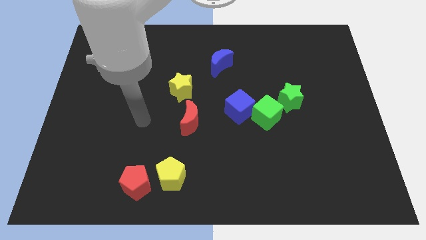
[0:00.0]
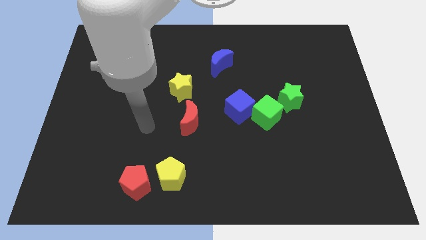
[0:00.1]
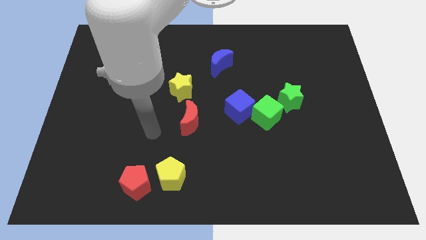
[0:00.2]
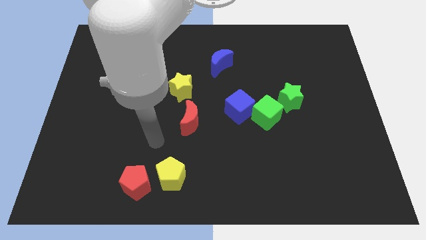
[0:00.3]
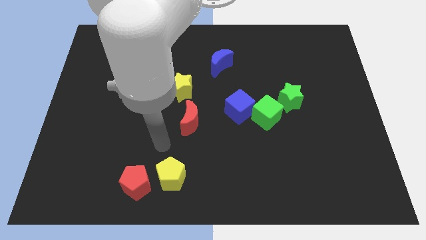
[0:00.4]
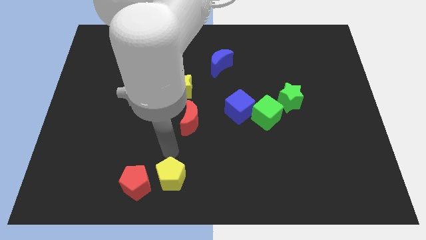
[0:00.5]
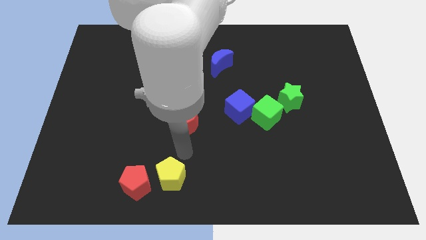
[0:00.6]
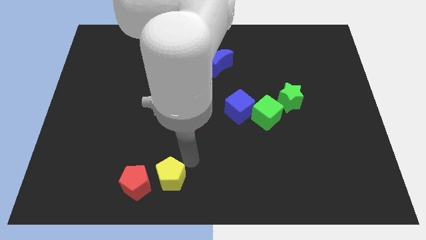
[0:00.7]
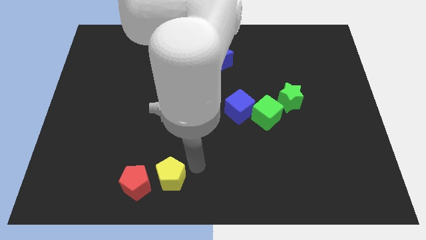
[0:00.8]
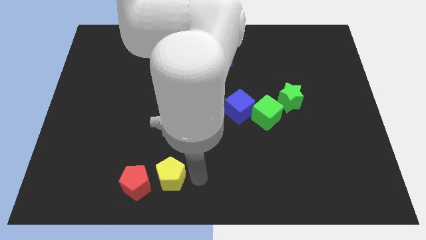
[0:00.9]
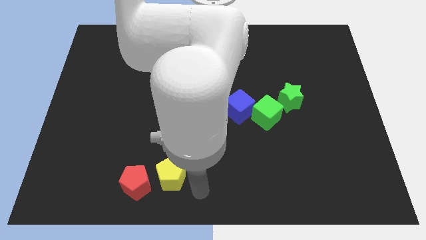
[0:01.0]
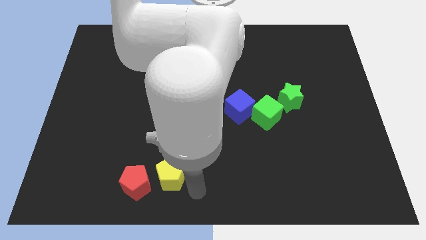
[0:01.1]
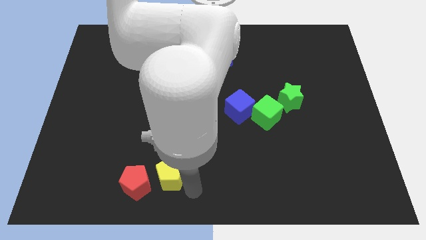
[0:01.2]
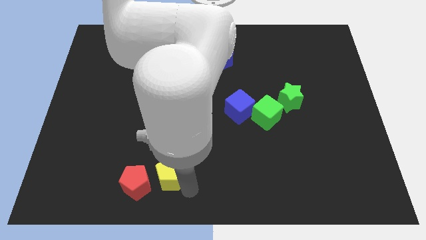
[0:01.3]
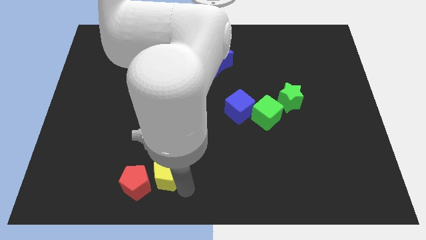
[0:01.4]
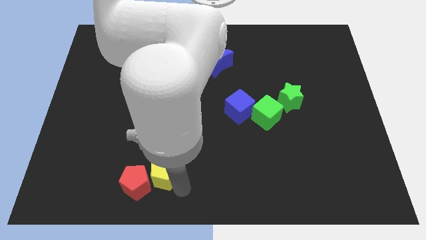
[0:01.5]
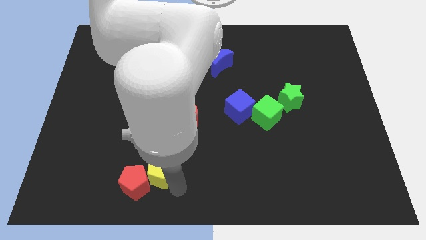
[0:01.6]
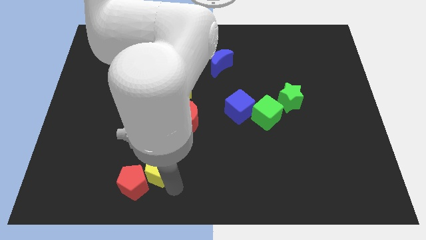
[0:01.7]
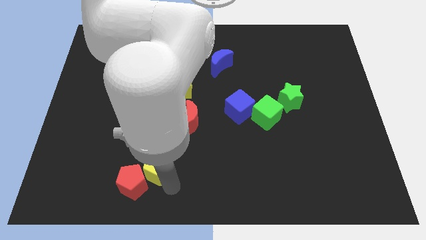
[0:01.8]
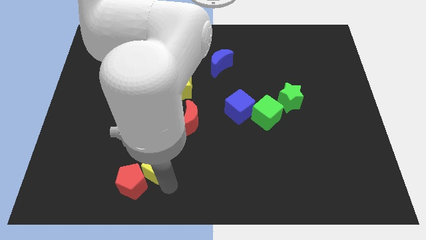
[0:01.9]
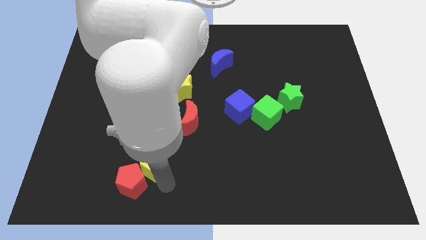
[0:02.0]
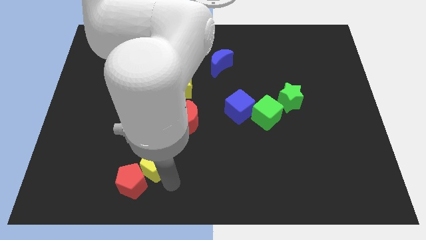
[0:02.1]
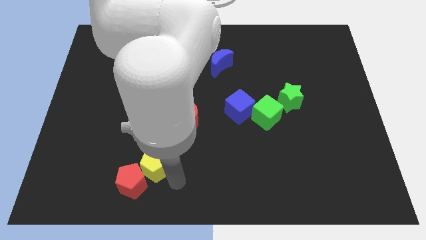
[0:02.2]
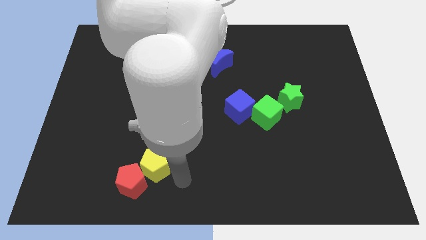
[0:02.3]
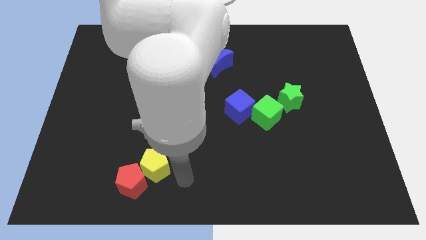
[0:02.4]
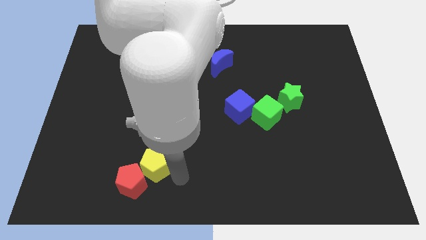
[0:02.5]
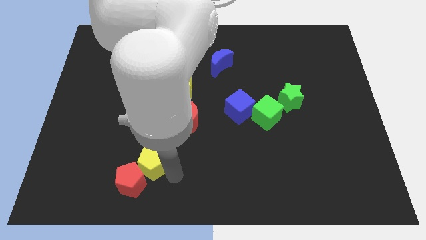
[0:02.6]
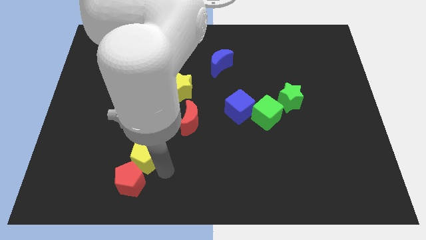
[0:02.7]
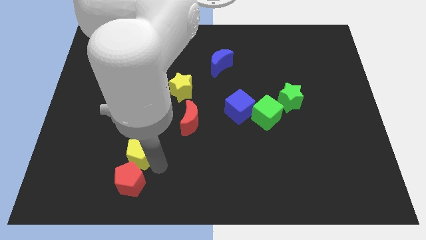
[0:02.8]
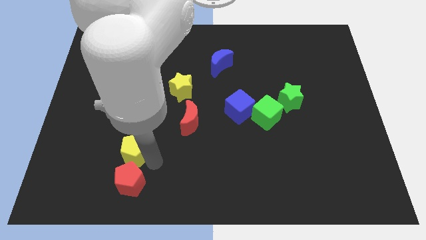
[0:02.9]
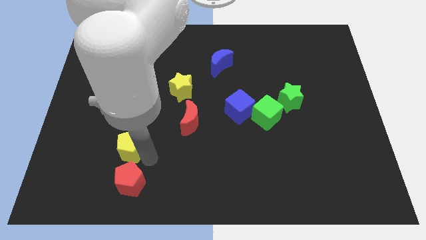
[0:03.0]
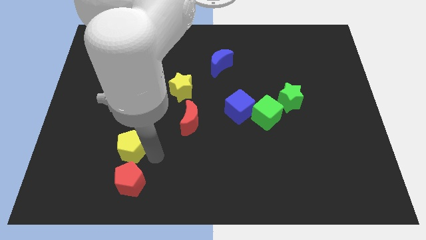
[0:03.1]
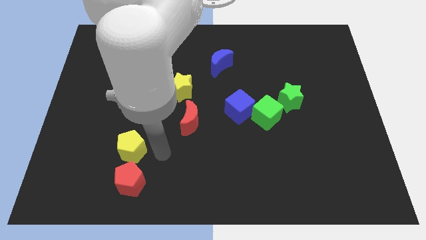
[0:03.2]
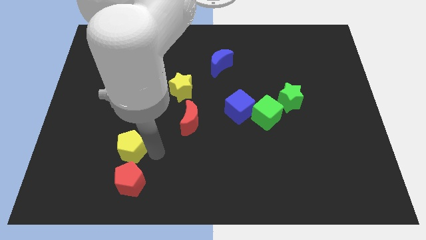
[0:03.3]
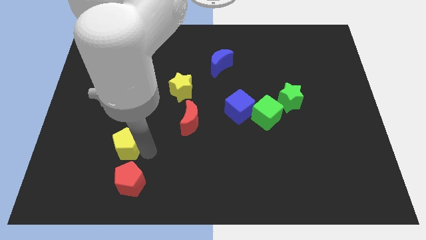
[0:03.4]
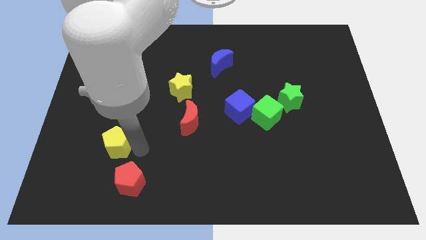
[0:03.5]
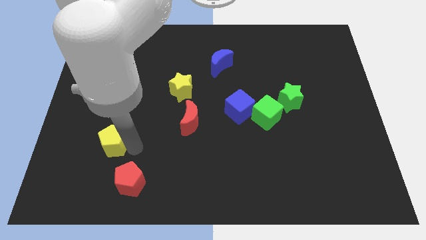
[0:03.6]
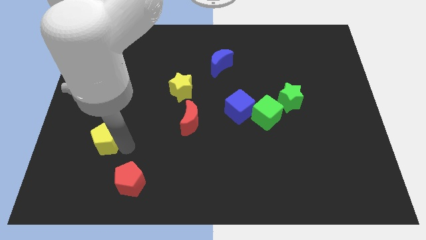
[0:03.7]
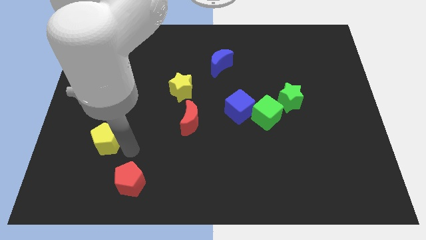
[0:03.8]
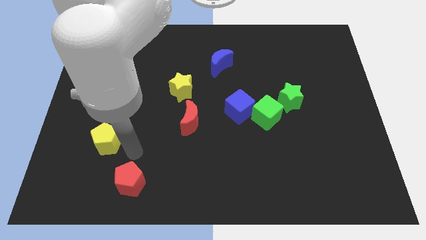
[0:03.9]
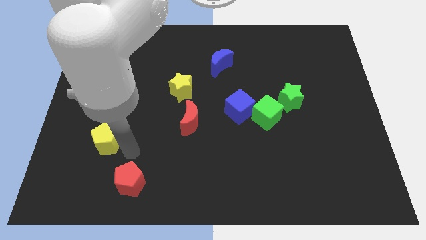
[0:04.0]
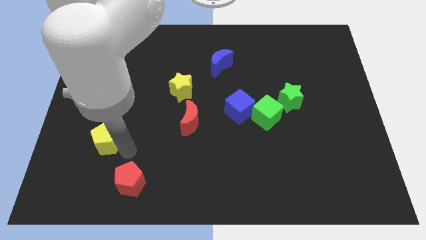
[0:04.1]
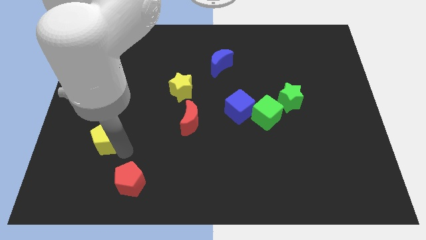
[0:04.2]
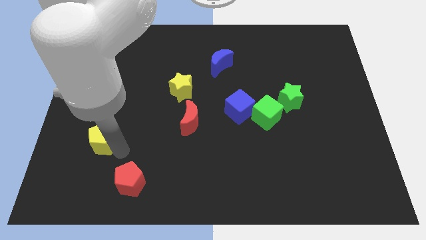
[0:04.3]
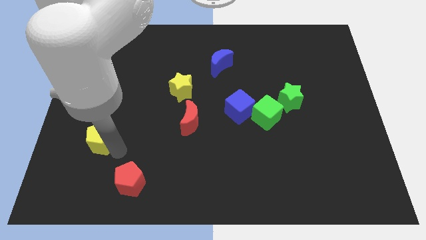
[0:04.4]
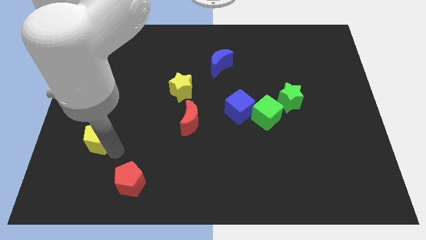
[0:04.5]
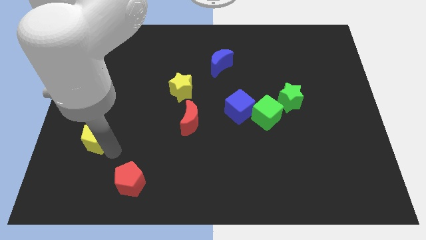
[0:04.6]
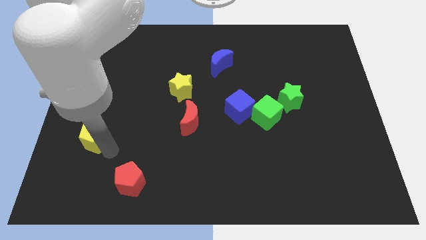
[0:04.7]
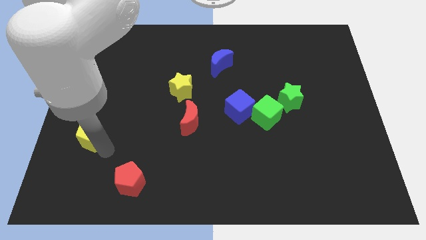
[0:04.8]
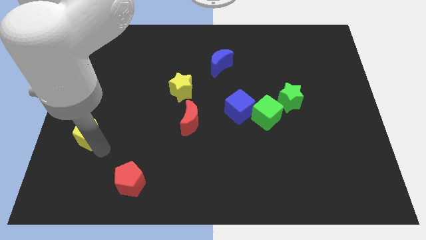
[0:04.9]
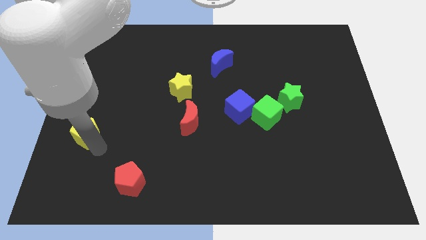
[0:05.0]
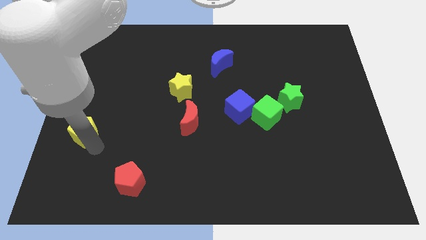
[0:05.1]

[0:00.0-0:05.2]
move the yellow pentagon to the center left

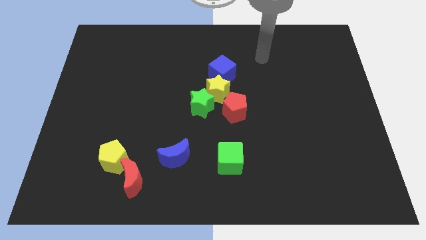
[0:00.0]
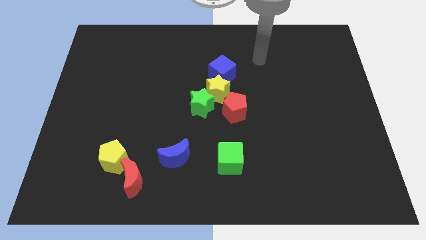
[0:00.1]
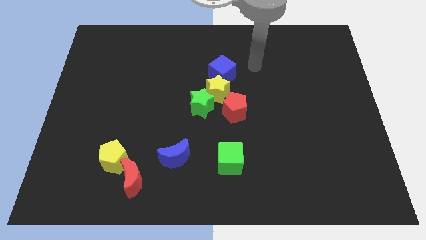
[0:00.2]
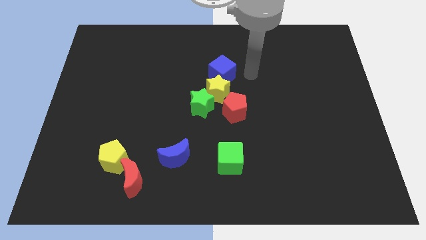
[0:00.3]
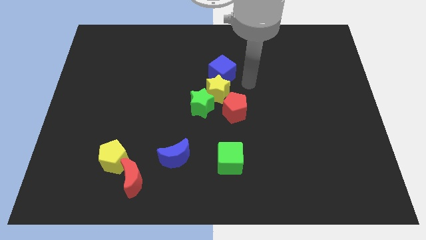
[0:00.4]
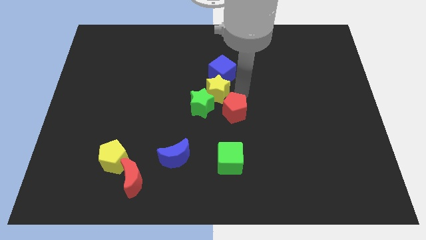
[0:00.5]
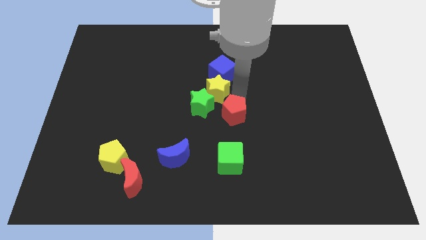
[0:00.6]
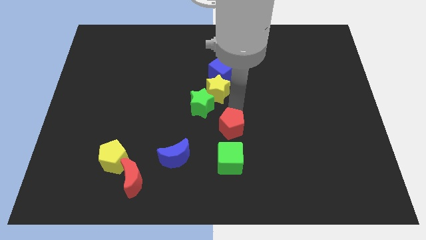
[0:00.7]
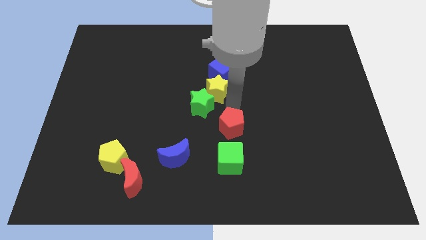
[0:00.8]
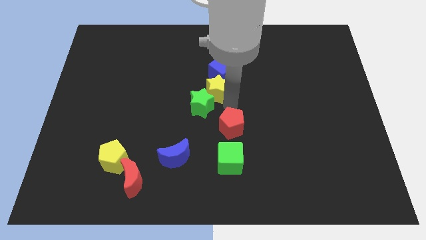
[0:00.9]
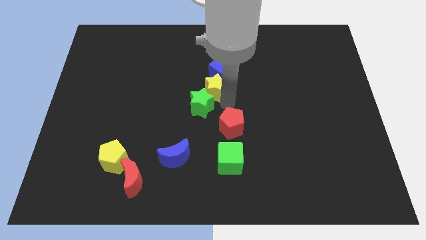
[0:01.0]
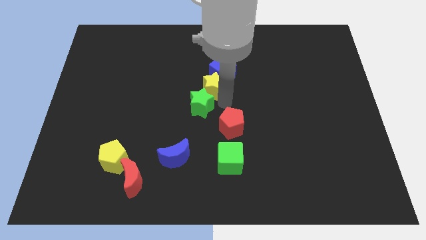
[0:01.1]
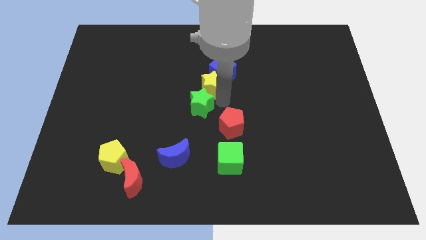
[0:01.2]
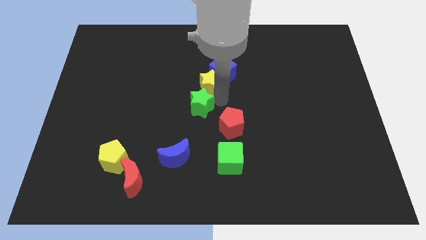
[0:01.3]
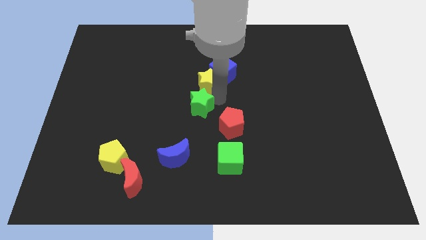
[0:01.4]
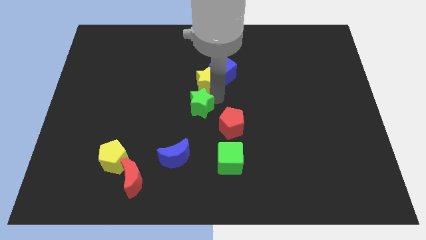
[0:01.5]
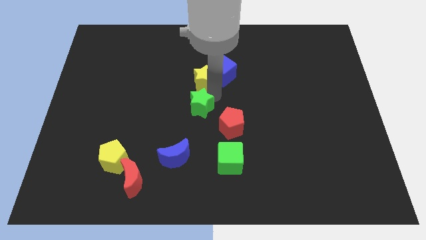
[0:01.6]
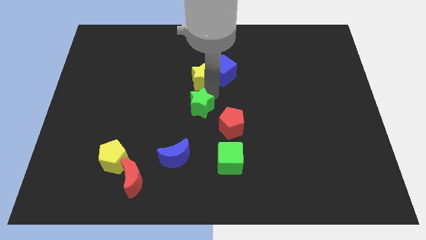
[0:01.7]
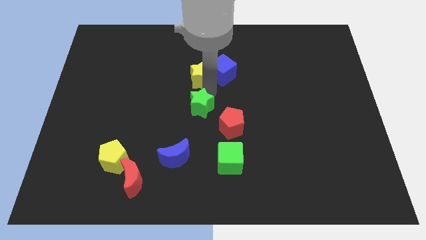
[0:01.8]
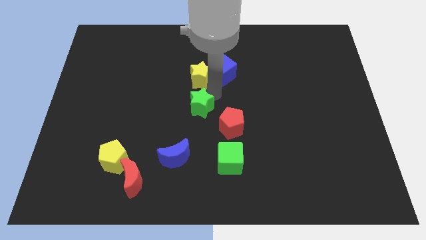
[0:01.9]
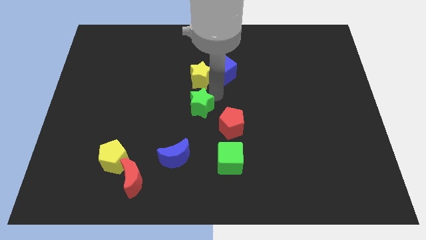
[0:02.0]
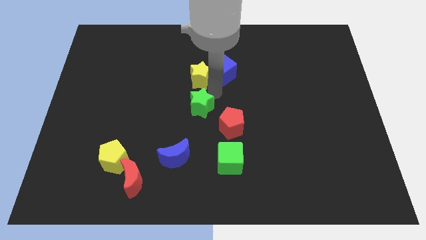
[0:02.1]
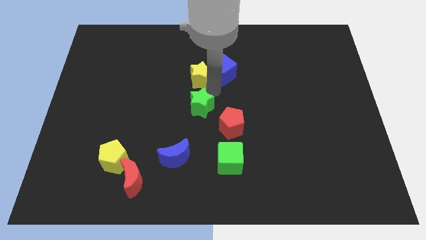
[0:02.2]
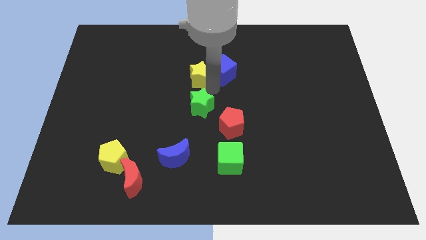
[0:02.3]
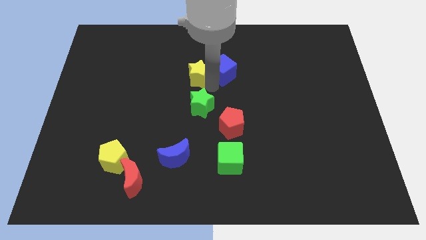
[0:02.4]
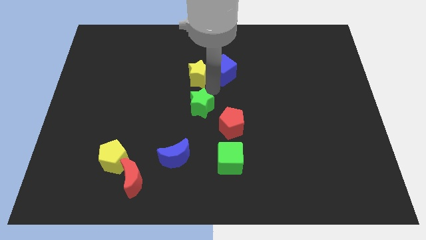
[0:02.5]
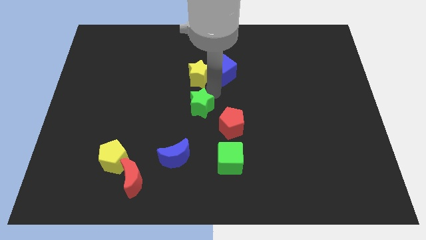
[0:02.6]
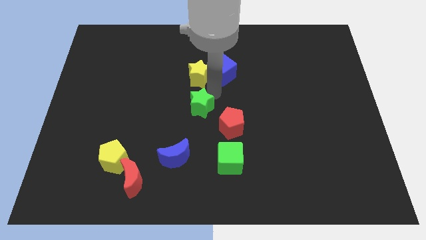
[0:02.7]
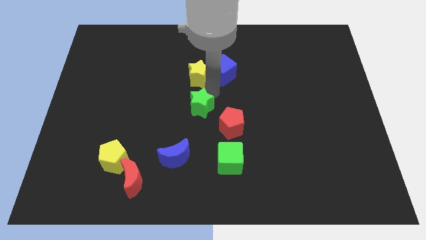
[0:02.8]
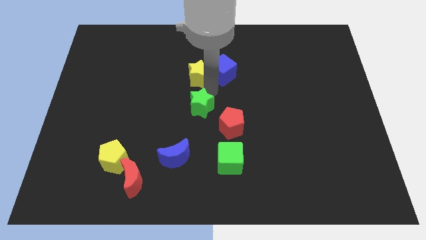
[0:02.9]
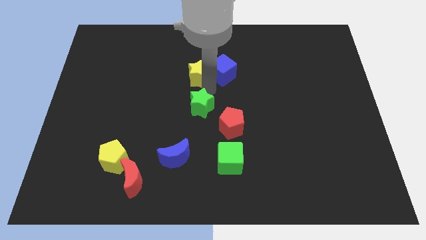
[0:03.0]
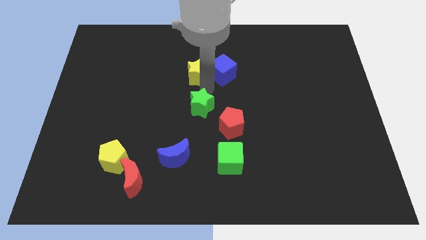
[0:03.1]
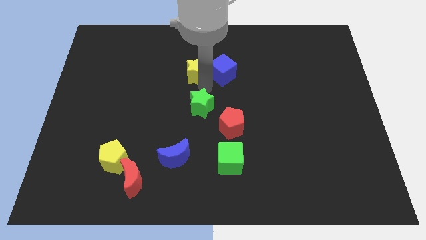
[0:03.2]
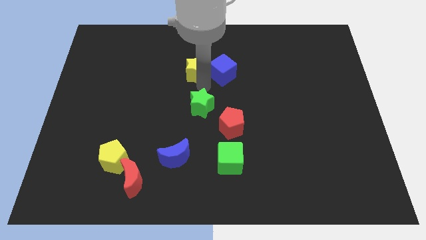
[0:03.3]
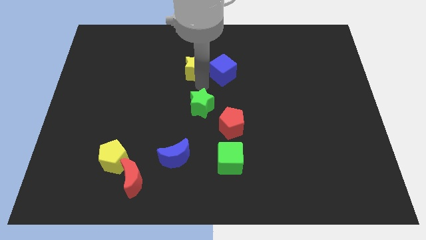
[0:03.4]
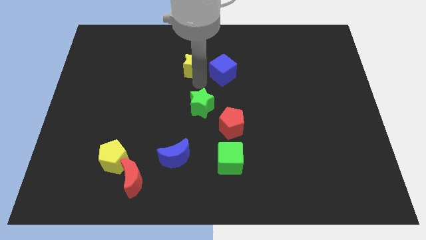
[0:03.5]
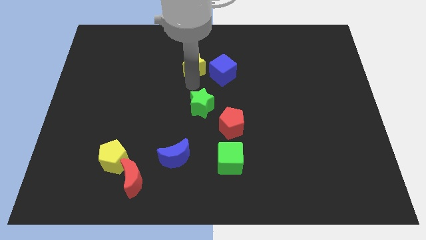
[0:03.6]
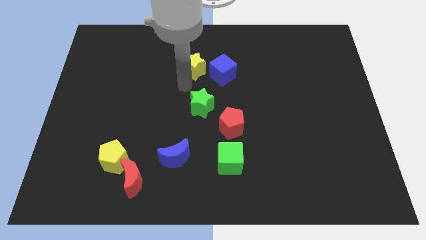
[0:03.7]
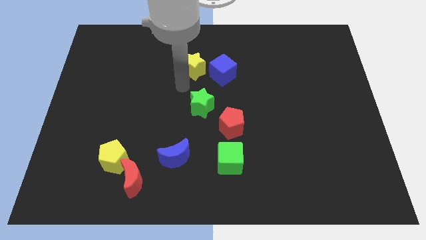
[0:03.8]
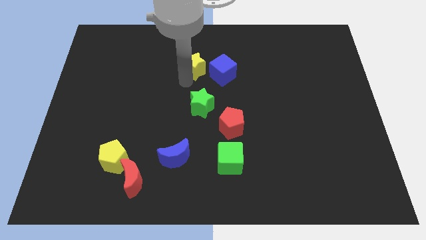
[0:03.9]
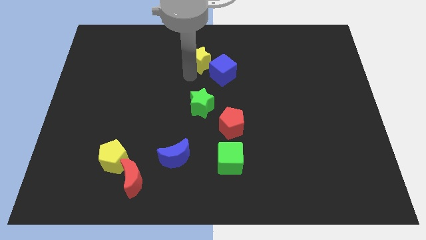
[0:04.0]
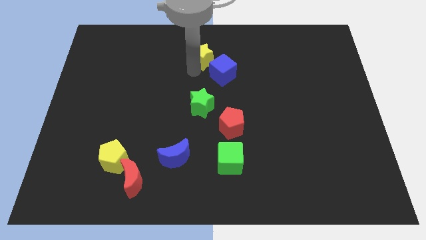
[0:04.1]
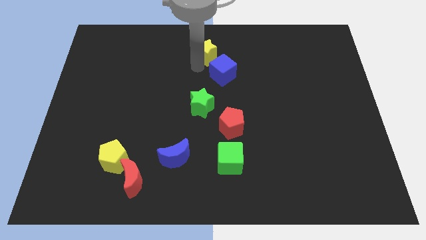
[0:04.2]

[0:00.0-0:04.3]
push the yellow star to the top
